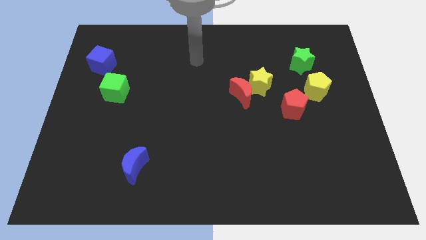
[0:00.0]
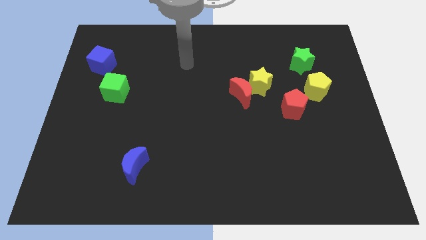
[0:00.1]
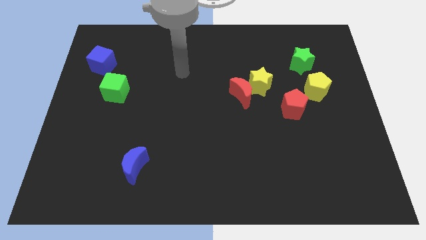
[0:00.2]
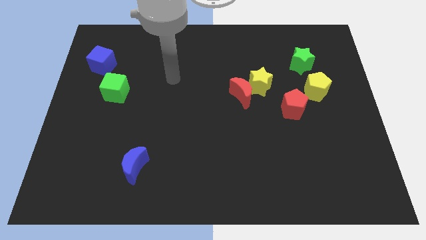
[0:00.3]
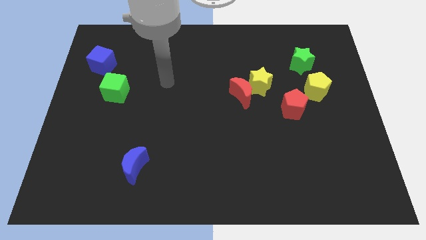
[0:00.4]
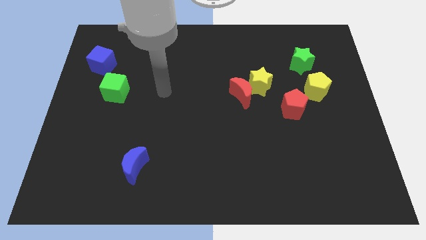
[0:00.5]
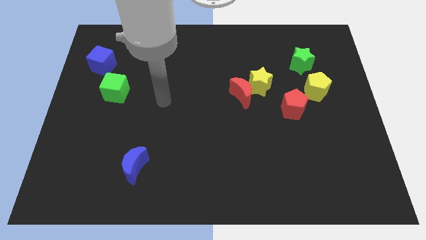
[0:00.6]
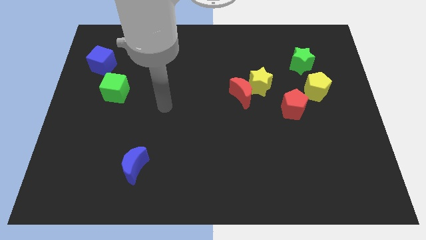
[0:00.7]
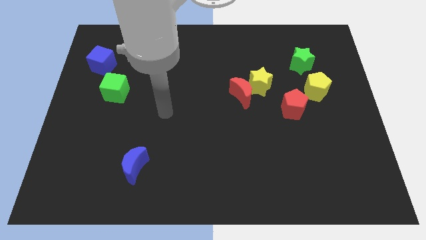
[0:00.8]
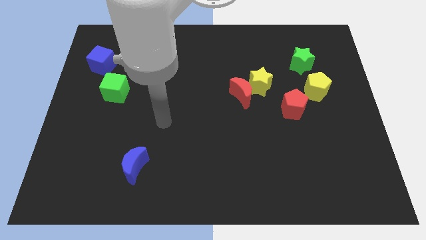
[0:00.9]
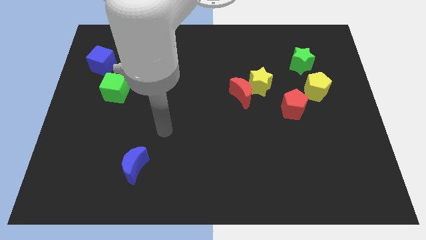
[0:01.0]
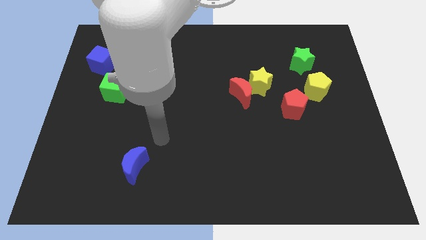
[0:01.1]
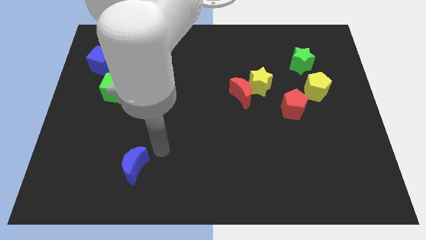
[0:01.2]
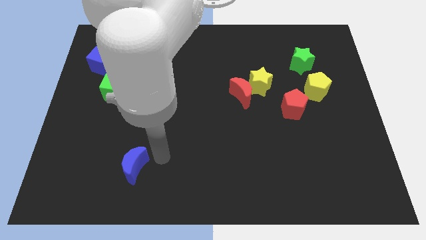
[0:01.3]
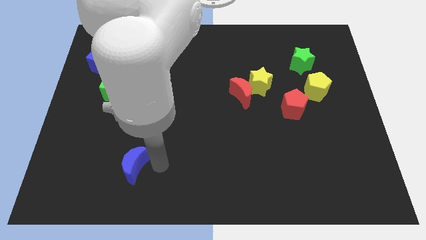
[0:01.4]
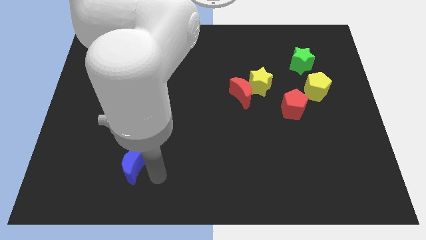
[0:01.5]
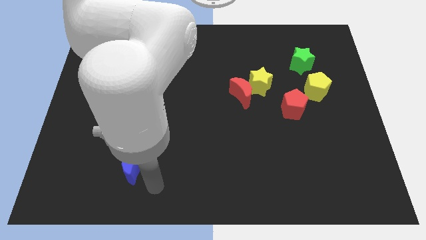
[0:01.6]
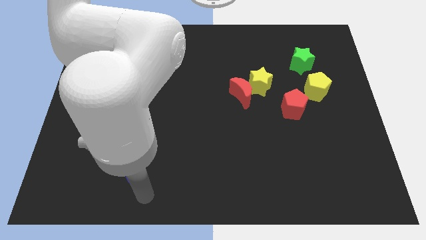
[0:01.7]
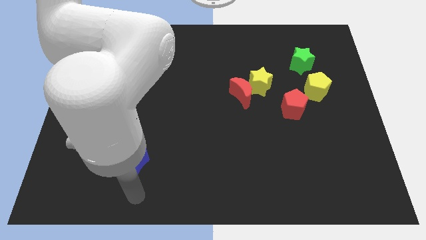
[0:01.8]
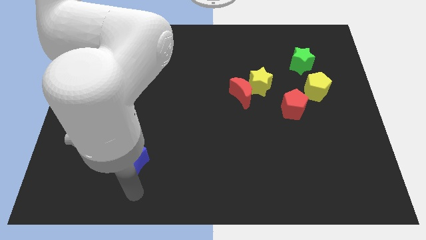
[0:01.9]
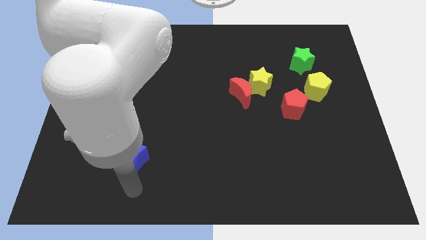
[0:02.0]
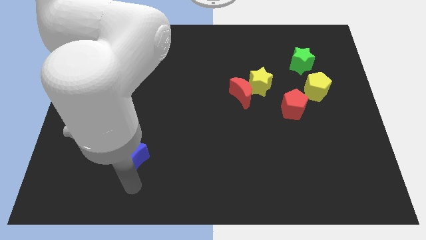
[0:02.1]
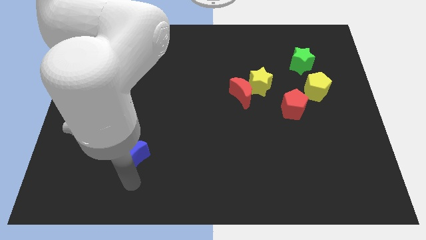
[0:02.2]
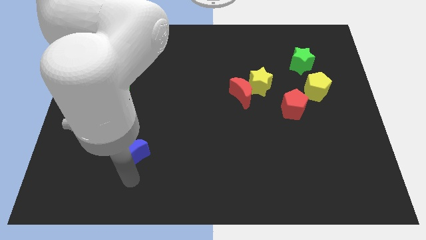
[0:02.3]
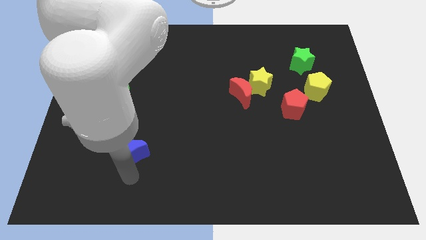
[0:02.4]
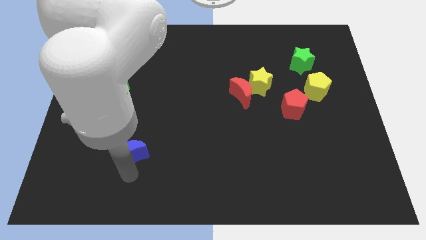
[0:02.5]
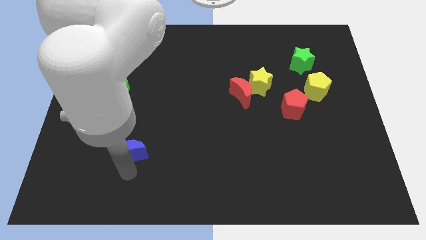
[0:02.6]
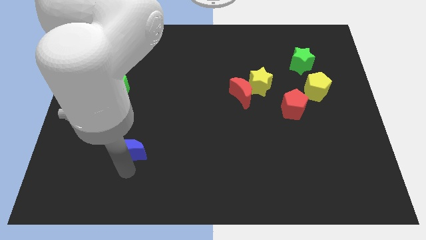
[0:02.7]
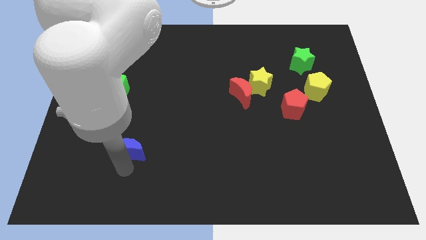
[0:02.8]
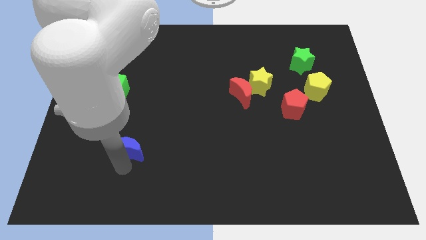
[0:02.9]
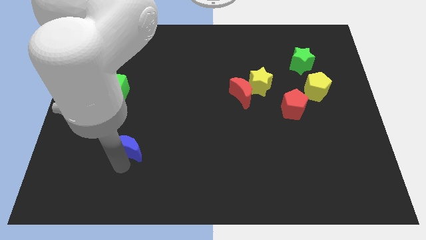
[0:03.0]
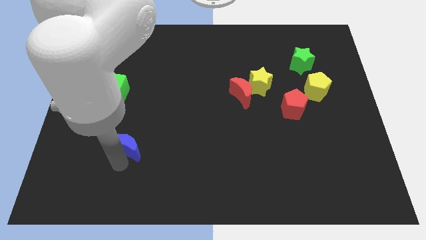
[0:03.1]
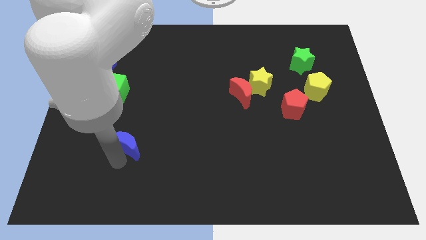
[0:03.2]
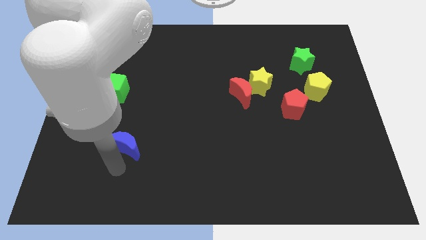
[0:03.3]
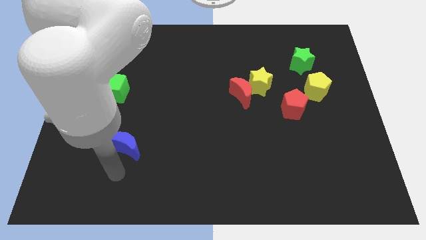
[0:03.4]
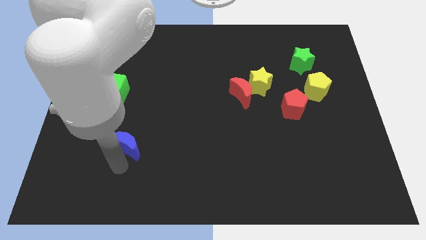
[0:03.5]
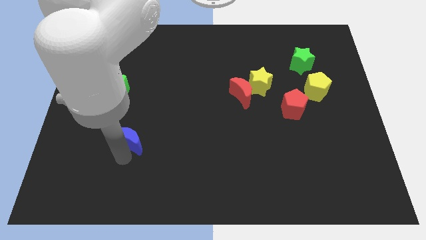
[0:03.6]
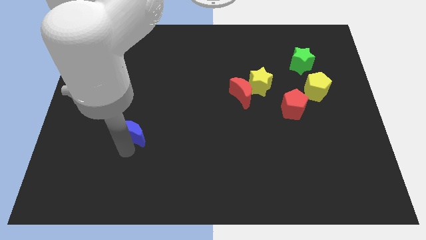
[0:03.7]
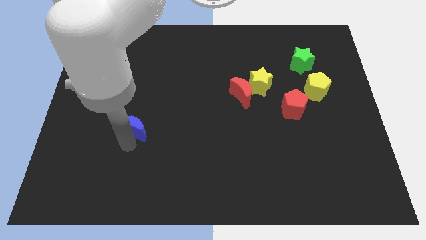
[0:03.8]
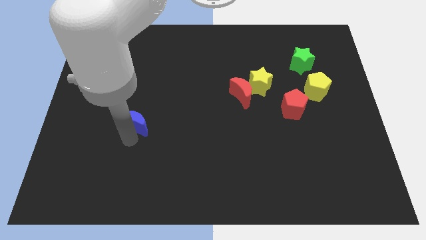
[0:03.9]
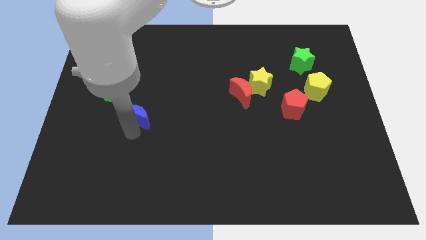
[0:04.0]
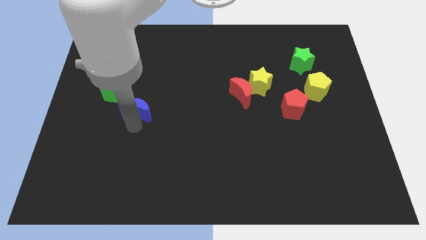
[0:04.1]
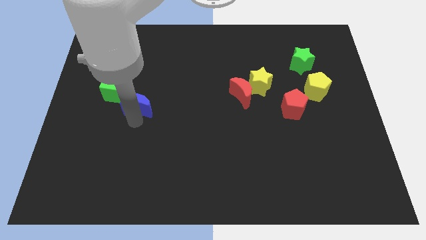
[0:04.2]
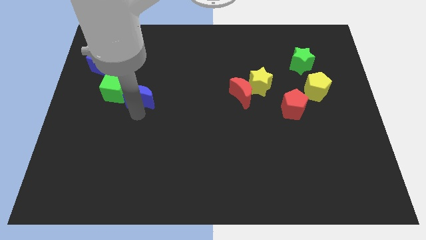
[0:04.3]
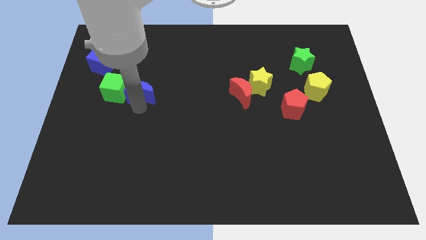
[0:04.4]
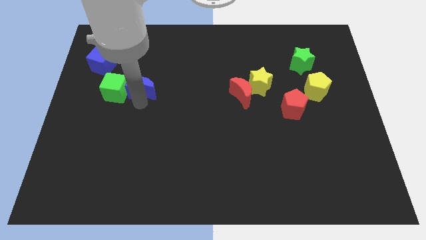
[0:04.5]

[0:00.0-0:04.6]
move the blue moon up

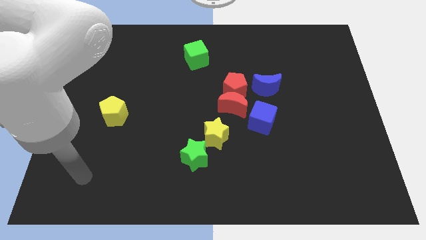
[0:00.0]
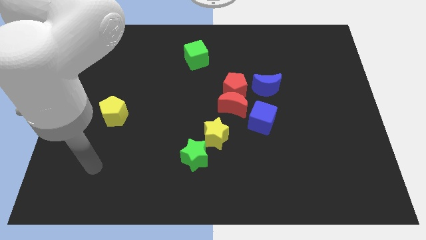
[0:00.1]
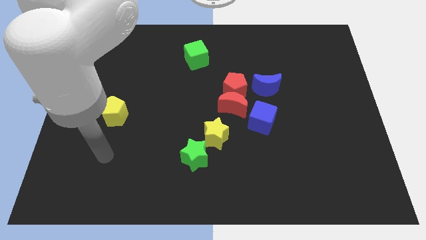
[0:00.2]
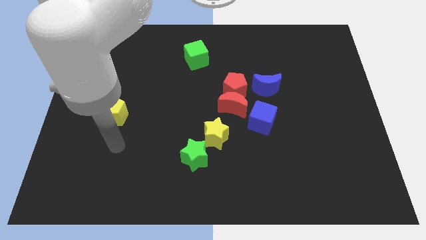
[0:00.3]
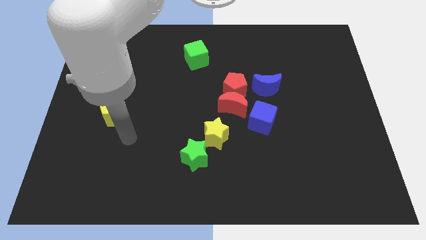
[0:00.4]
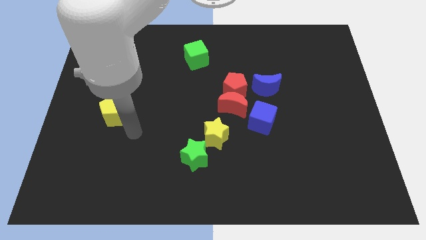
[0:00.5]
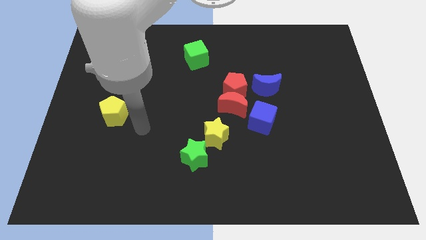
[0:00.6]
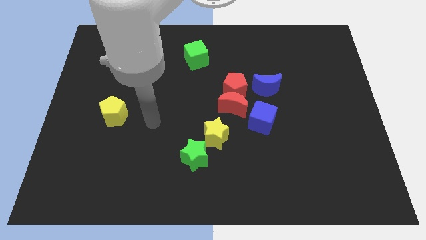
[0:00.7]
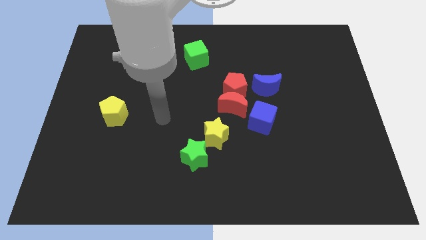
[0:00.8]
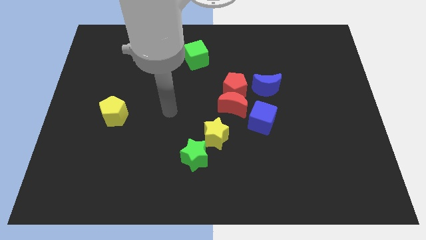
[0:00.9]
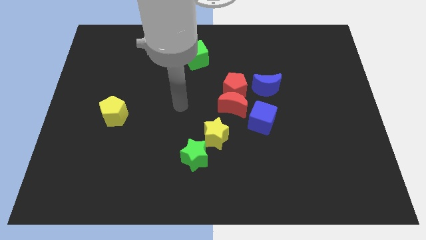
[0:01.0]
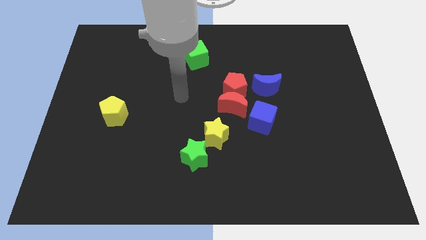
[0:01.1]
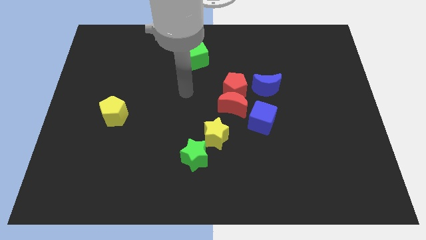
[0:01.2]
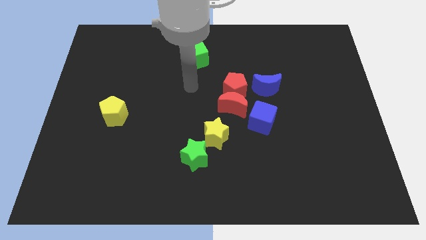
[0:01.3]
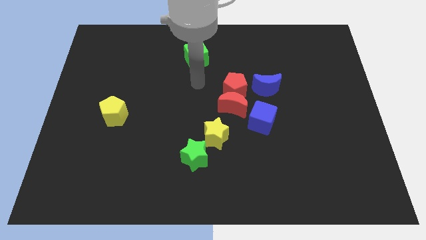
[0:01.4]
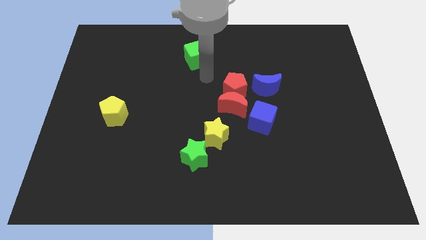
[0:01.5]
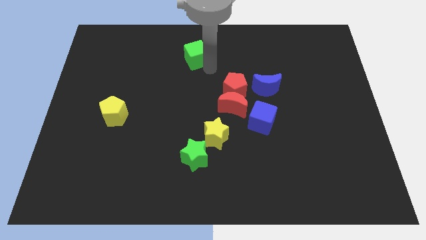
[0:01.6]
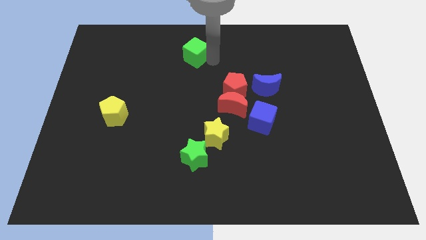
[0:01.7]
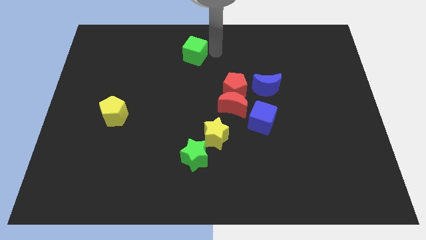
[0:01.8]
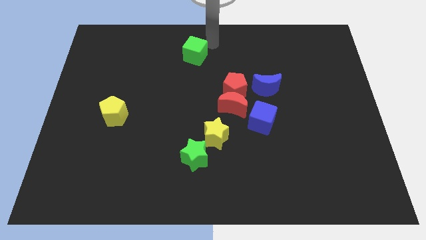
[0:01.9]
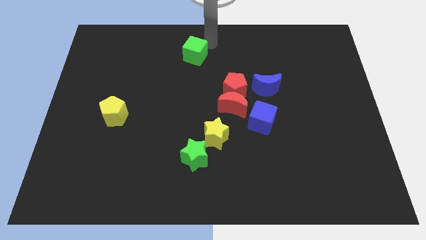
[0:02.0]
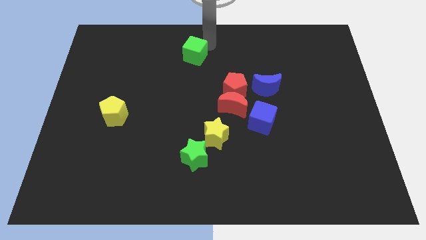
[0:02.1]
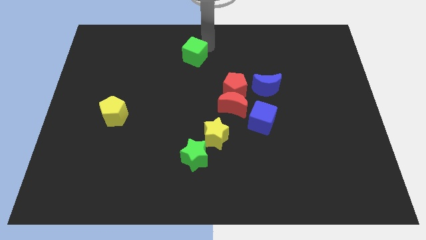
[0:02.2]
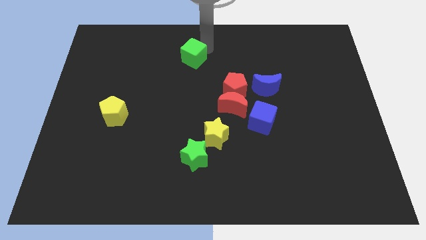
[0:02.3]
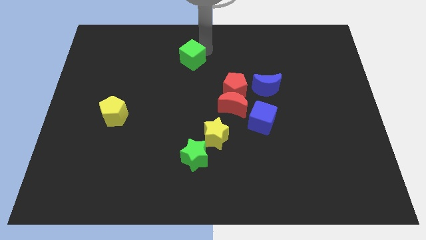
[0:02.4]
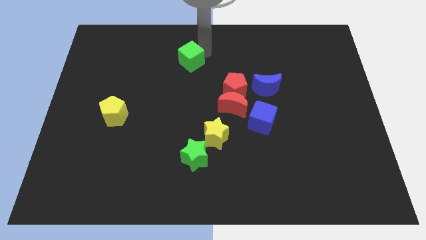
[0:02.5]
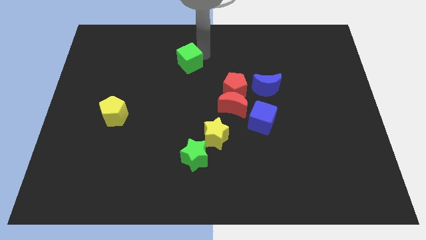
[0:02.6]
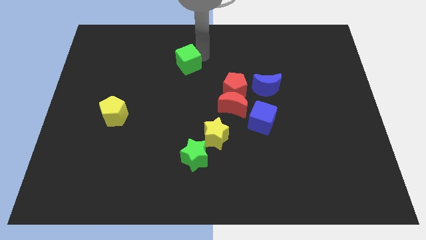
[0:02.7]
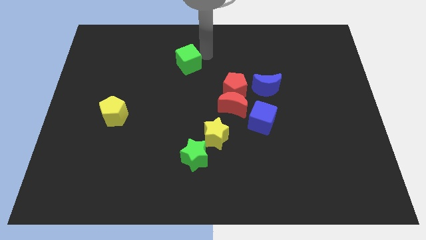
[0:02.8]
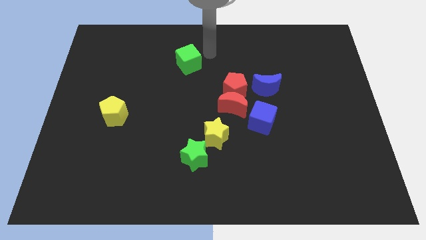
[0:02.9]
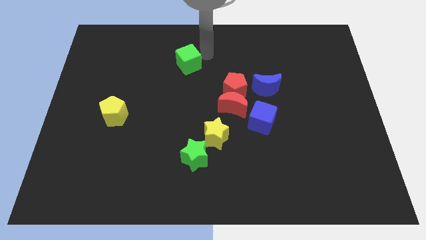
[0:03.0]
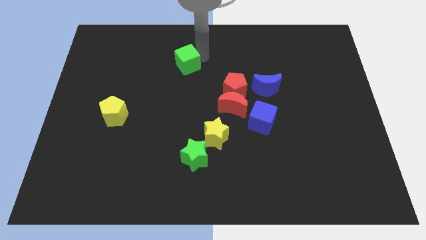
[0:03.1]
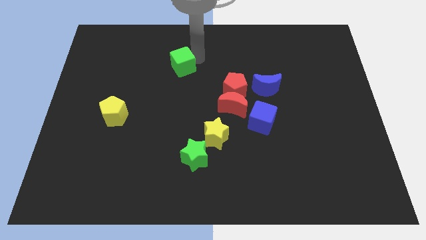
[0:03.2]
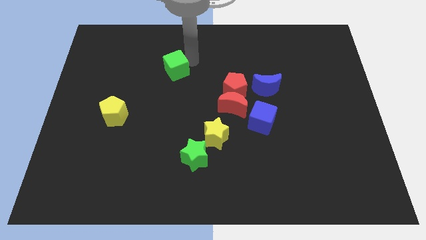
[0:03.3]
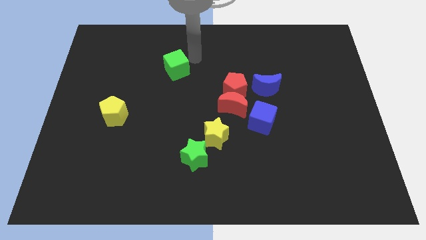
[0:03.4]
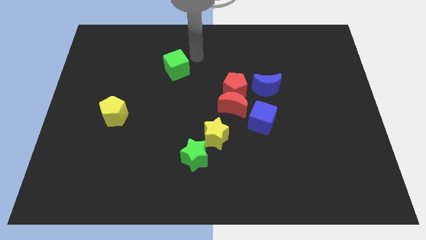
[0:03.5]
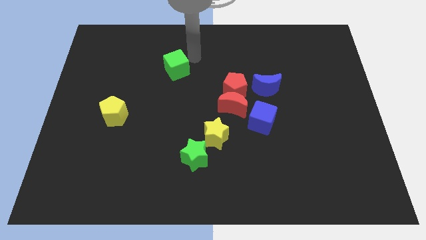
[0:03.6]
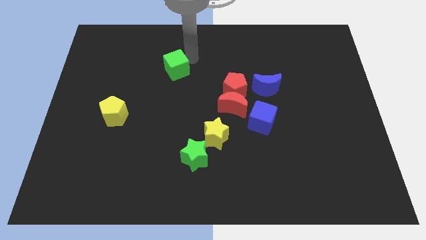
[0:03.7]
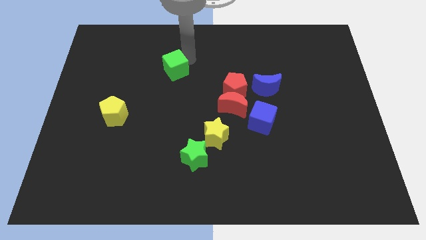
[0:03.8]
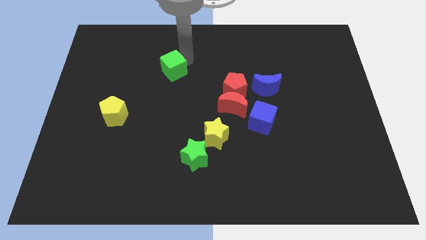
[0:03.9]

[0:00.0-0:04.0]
move the green cube diagonally downwards and to the left a little bit
